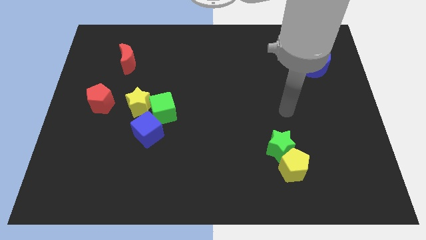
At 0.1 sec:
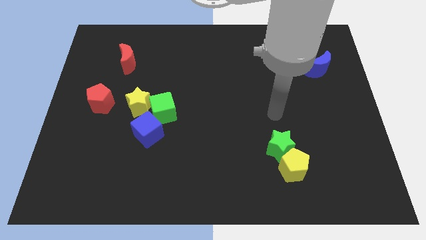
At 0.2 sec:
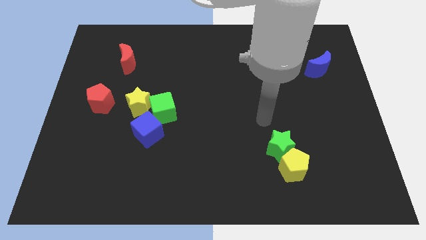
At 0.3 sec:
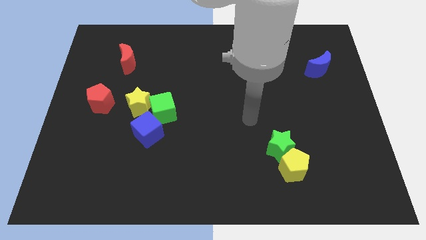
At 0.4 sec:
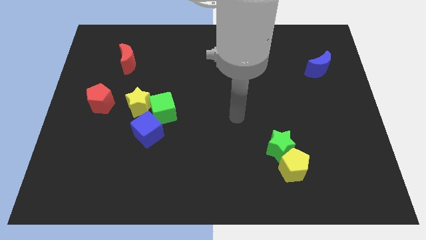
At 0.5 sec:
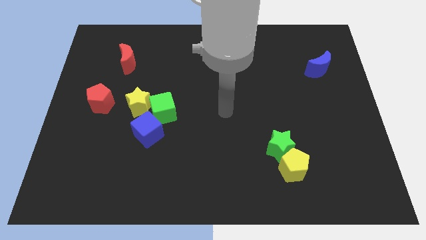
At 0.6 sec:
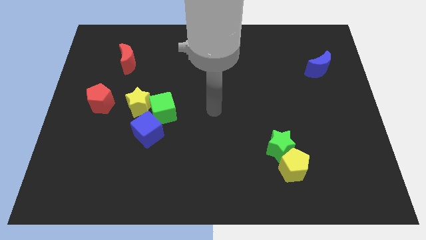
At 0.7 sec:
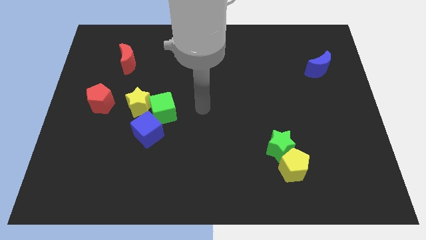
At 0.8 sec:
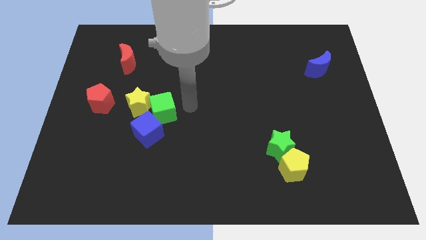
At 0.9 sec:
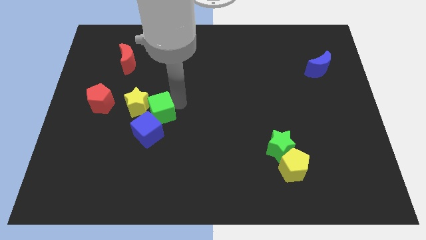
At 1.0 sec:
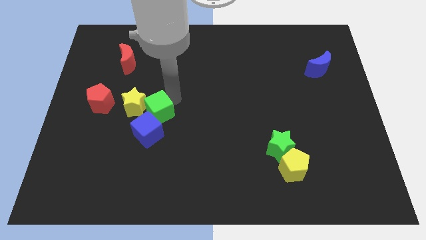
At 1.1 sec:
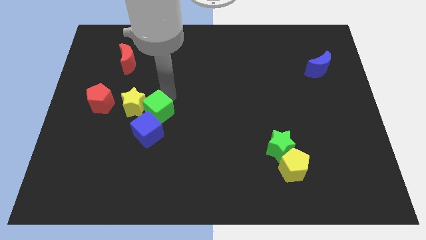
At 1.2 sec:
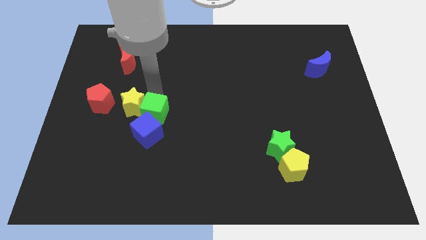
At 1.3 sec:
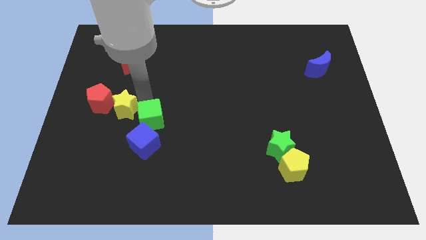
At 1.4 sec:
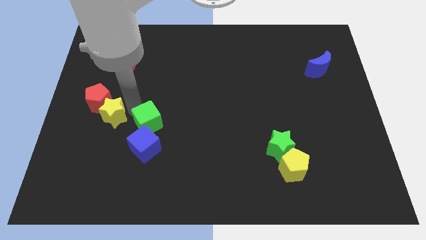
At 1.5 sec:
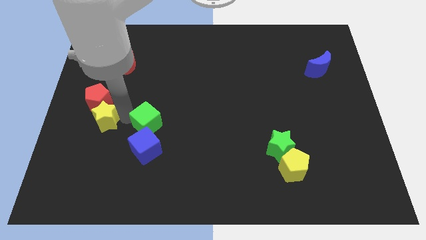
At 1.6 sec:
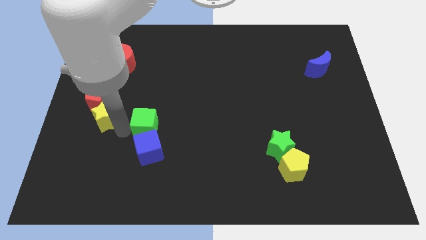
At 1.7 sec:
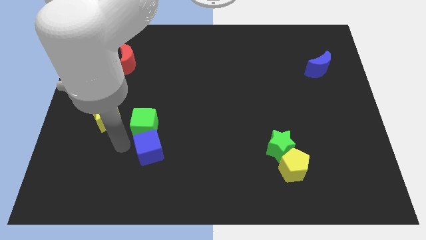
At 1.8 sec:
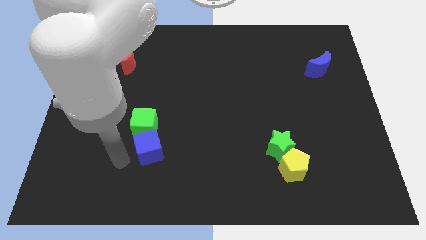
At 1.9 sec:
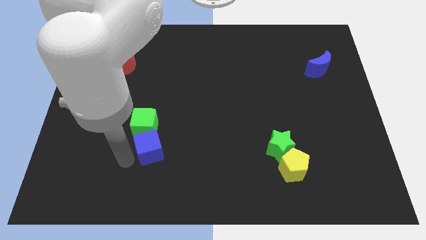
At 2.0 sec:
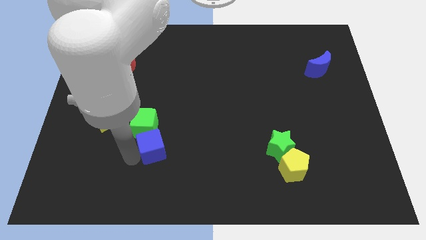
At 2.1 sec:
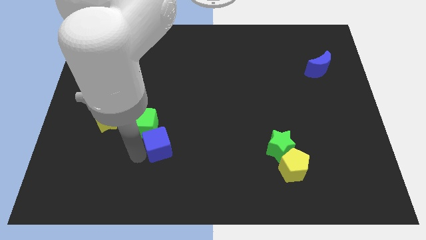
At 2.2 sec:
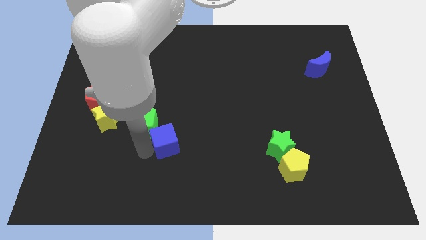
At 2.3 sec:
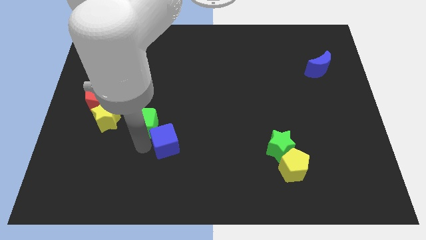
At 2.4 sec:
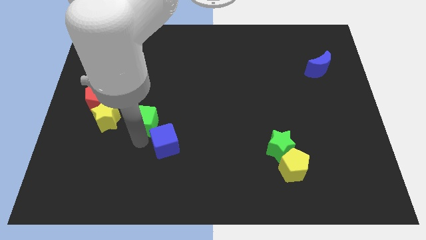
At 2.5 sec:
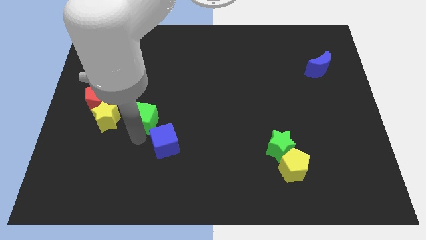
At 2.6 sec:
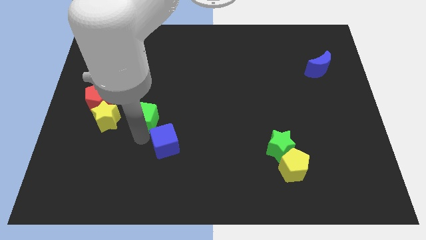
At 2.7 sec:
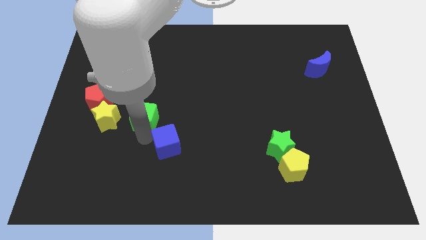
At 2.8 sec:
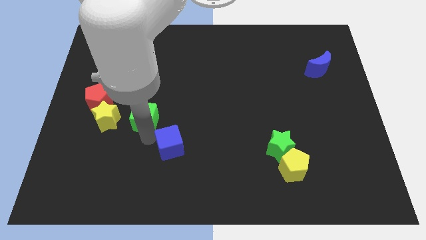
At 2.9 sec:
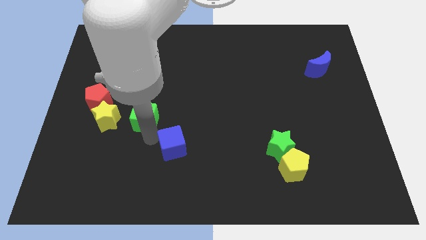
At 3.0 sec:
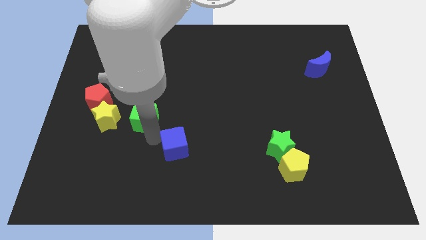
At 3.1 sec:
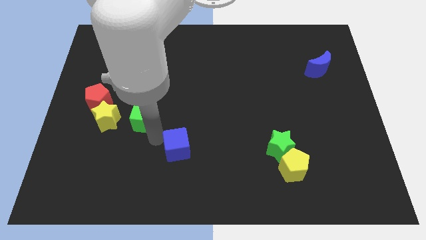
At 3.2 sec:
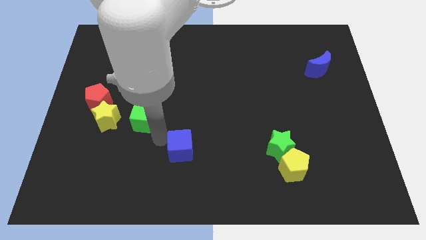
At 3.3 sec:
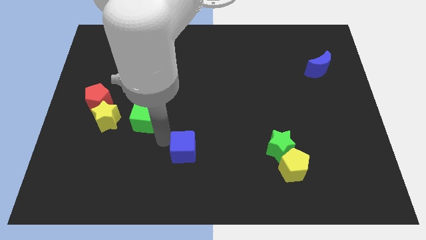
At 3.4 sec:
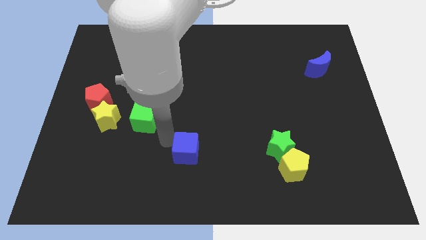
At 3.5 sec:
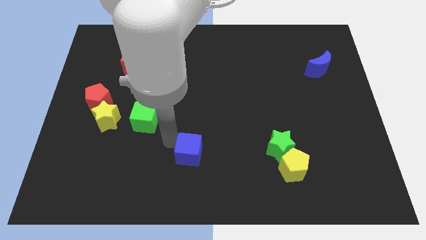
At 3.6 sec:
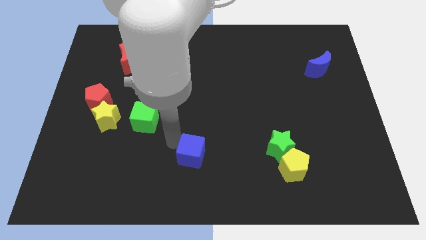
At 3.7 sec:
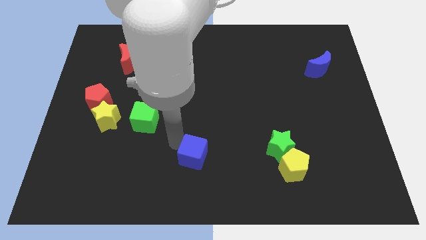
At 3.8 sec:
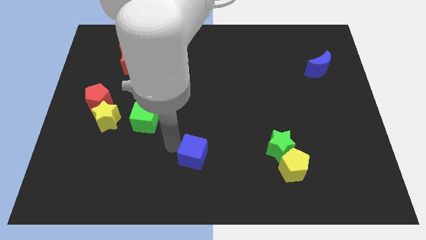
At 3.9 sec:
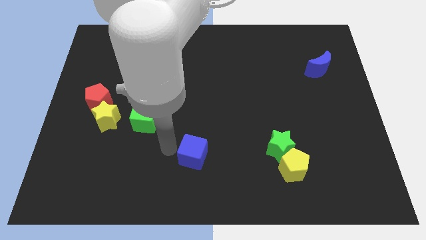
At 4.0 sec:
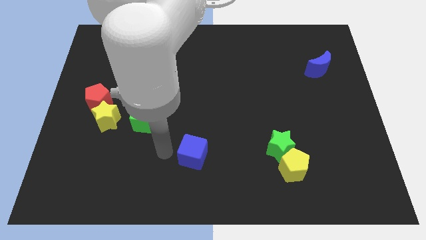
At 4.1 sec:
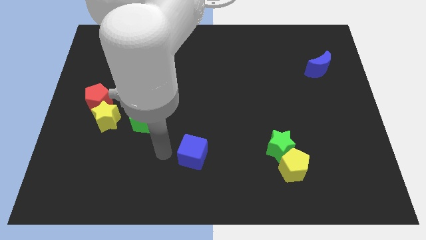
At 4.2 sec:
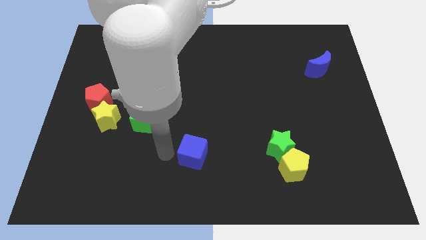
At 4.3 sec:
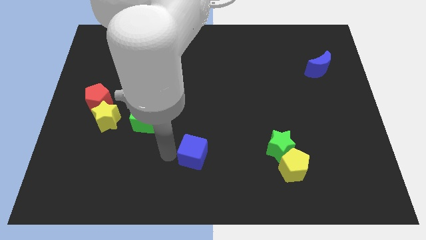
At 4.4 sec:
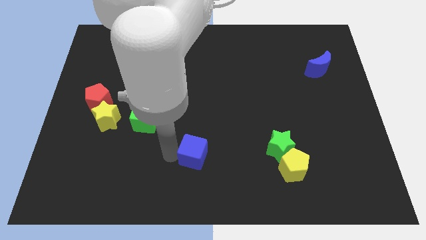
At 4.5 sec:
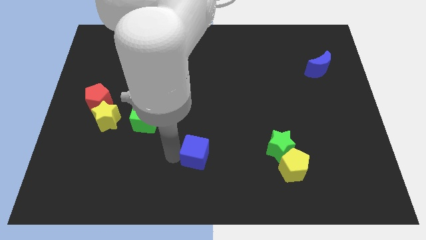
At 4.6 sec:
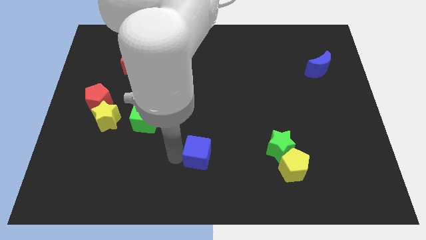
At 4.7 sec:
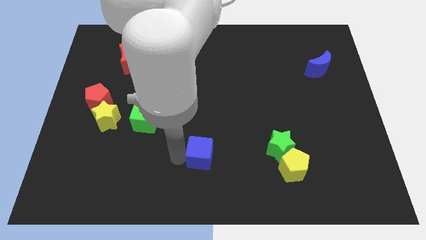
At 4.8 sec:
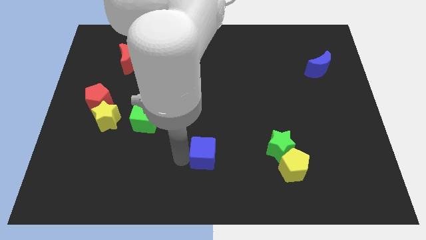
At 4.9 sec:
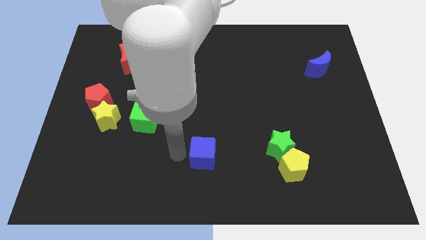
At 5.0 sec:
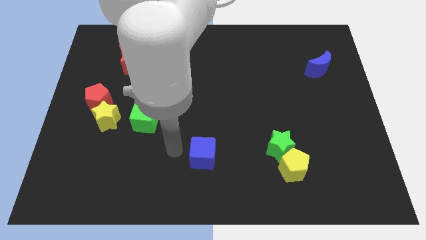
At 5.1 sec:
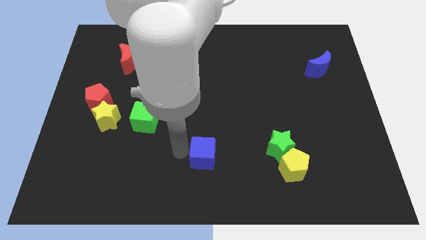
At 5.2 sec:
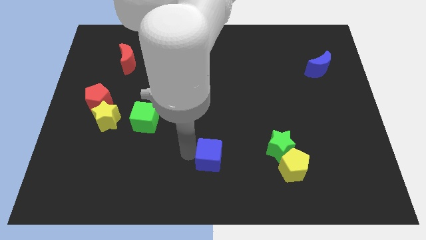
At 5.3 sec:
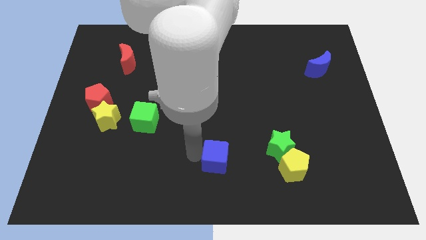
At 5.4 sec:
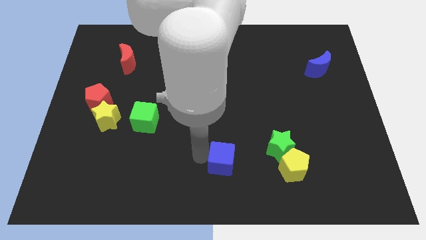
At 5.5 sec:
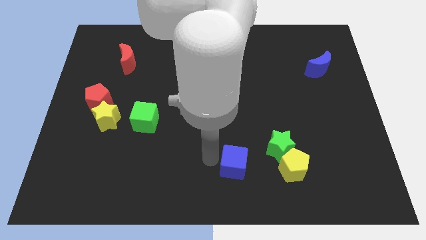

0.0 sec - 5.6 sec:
put the blue cube diagonally down and to the left of the green star

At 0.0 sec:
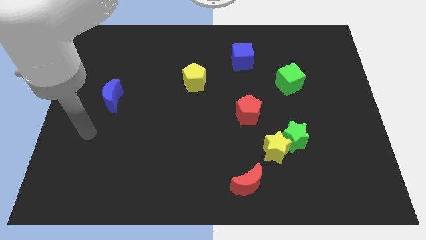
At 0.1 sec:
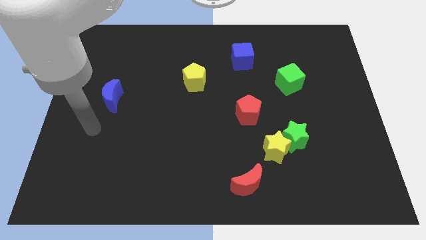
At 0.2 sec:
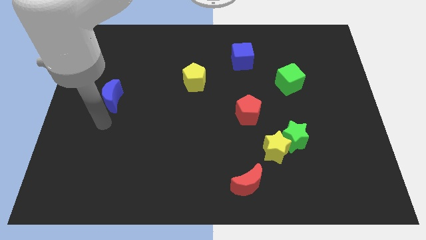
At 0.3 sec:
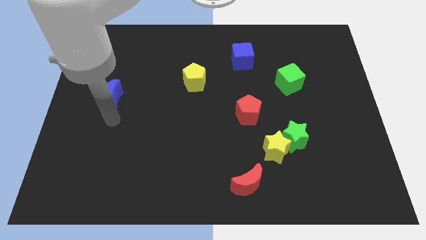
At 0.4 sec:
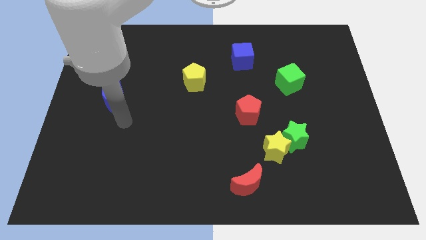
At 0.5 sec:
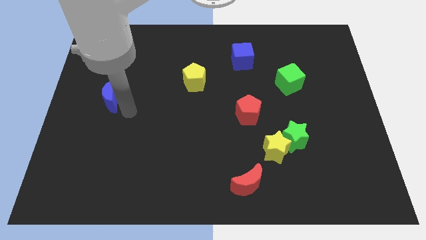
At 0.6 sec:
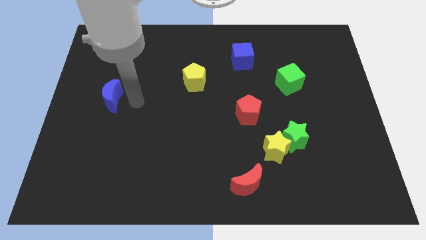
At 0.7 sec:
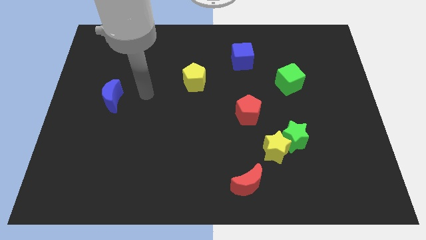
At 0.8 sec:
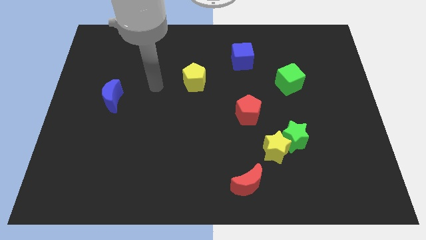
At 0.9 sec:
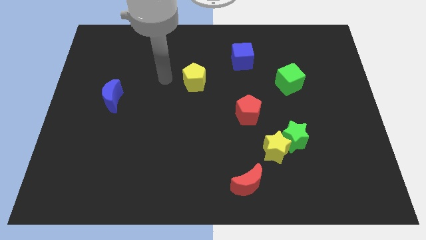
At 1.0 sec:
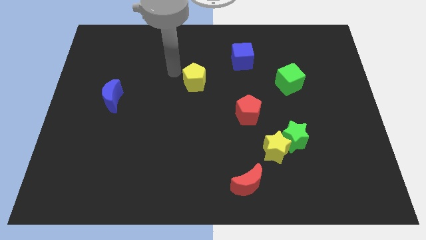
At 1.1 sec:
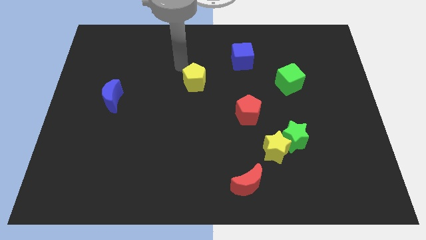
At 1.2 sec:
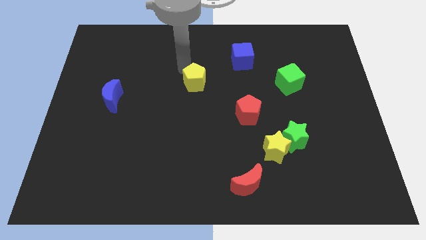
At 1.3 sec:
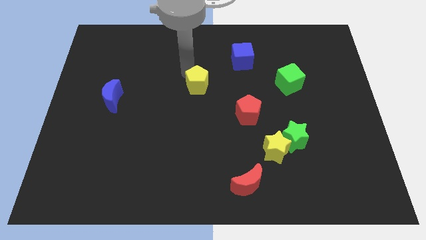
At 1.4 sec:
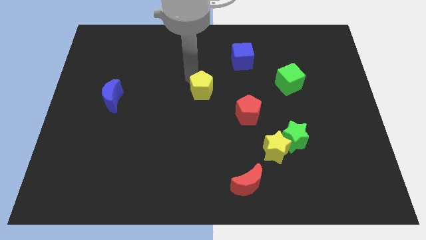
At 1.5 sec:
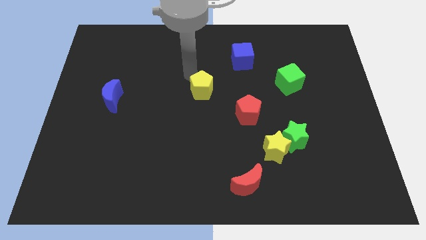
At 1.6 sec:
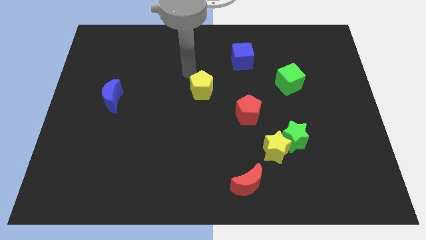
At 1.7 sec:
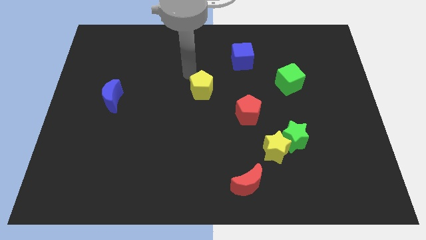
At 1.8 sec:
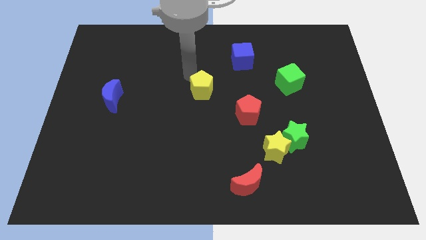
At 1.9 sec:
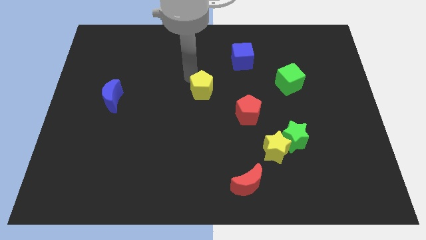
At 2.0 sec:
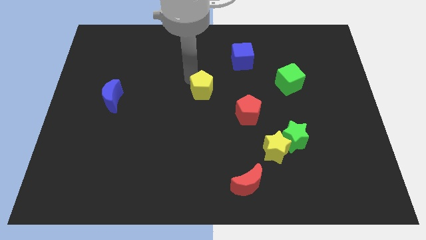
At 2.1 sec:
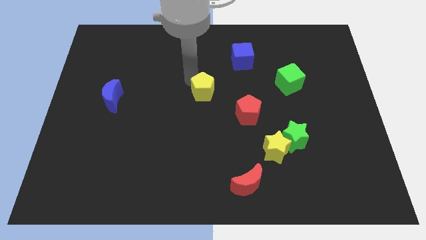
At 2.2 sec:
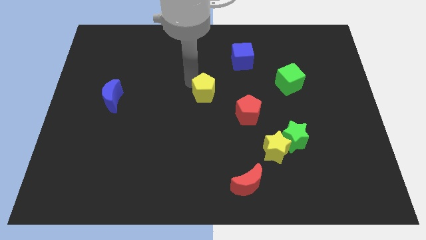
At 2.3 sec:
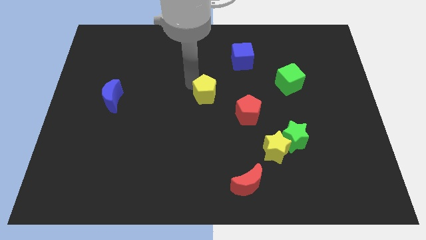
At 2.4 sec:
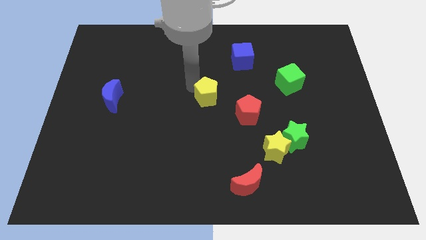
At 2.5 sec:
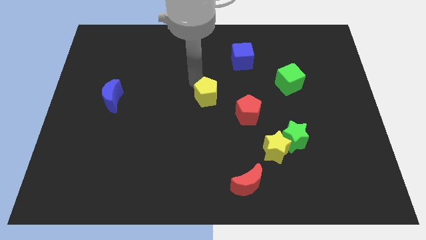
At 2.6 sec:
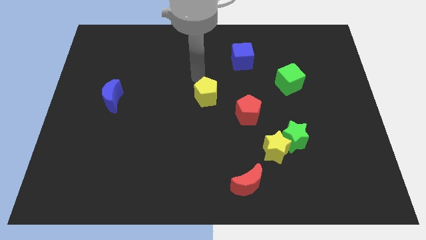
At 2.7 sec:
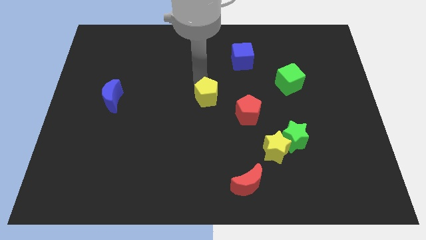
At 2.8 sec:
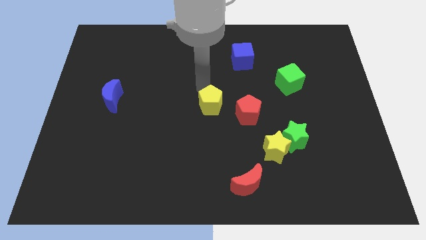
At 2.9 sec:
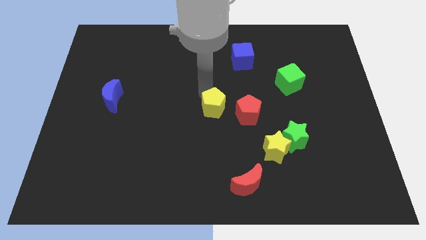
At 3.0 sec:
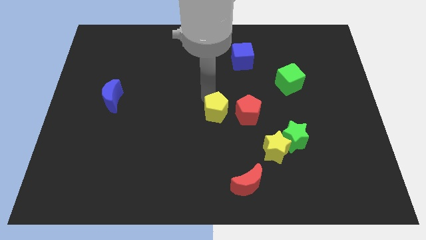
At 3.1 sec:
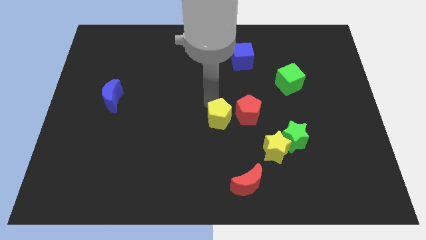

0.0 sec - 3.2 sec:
move the yellow pentagon to the bottom left of the red pentagon
